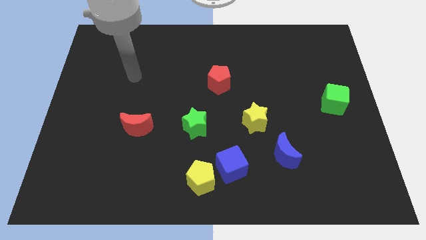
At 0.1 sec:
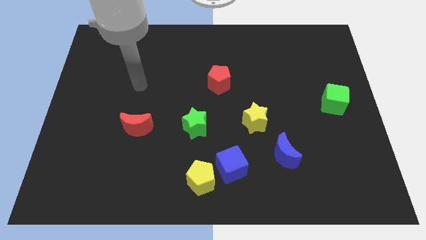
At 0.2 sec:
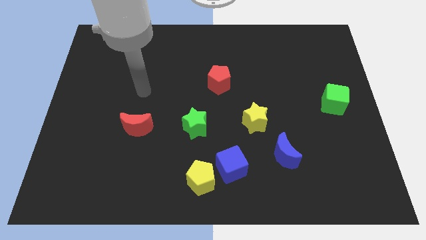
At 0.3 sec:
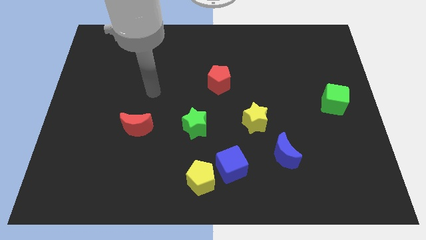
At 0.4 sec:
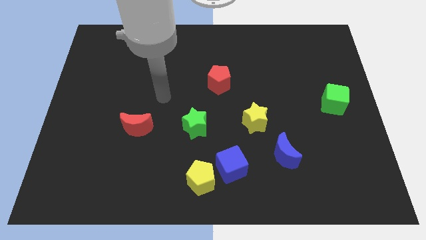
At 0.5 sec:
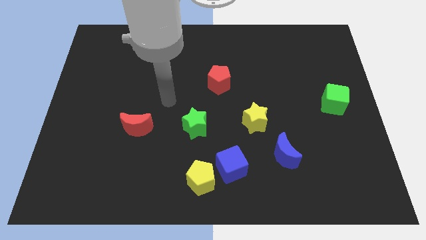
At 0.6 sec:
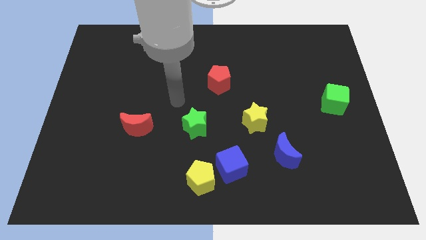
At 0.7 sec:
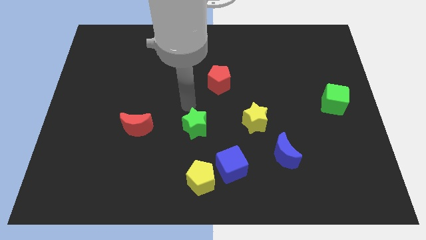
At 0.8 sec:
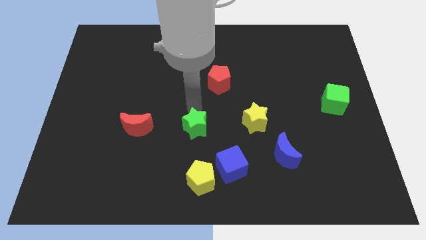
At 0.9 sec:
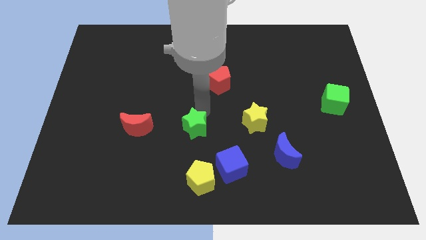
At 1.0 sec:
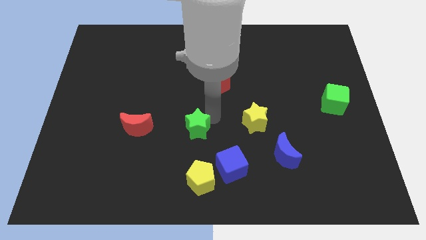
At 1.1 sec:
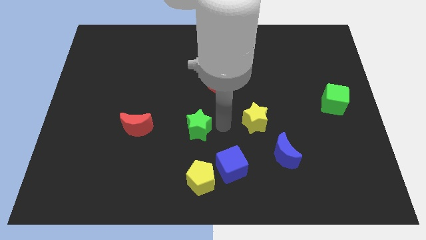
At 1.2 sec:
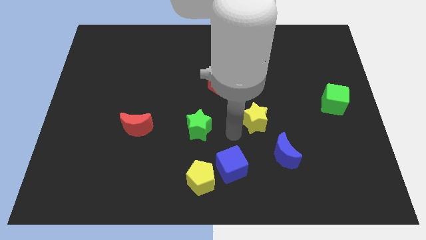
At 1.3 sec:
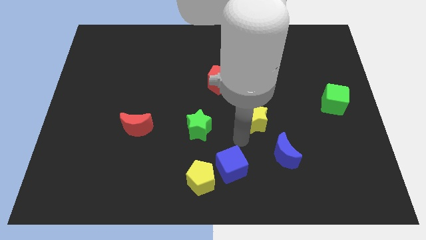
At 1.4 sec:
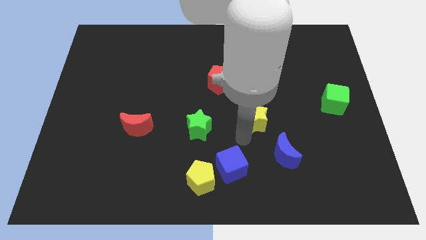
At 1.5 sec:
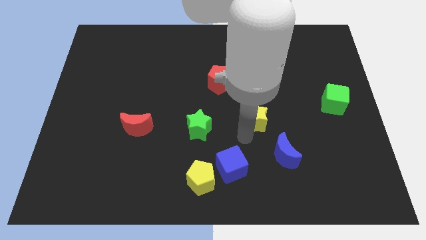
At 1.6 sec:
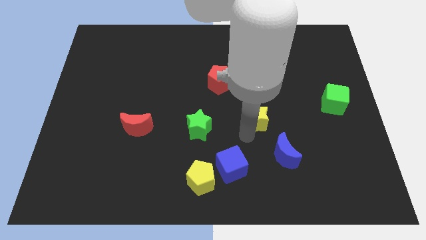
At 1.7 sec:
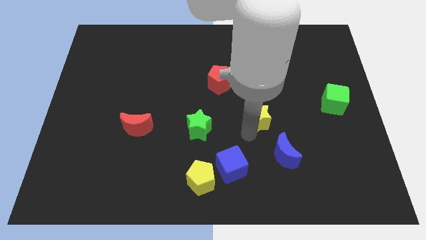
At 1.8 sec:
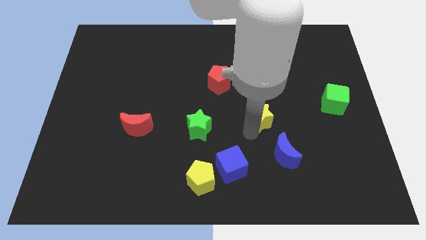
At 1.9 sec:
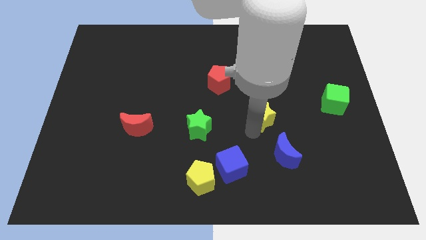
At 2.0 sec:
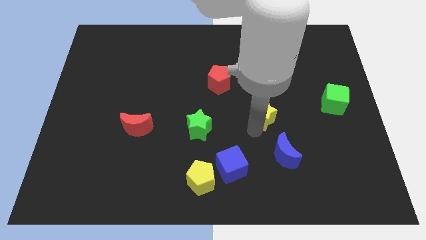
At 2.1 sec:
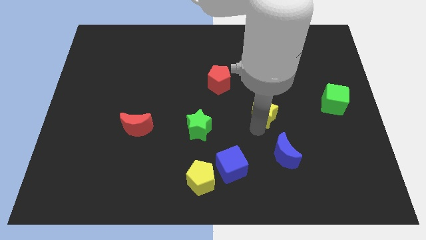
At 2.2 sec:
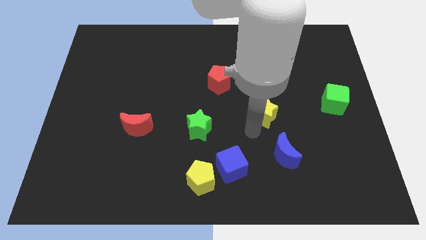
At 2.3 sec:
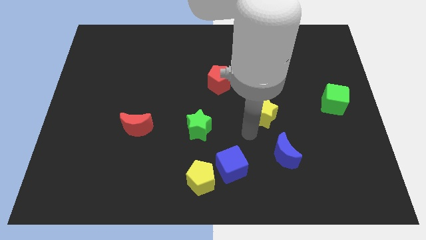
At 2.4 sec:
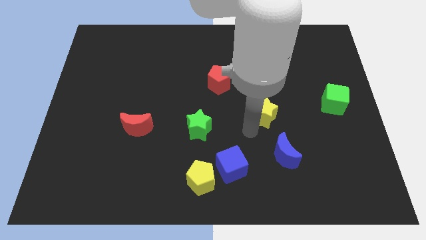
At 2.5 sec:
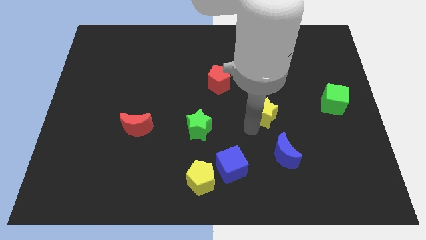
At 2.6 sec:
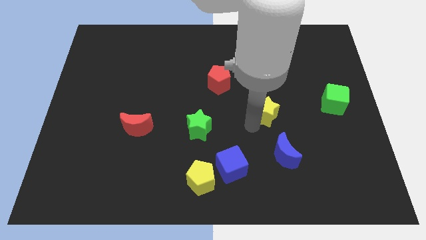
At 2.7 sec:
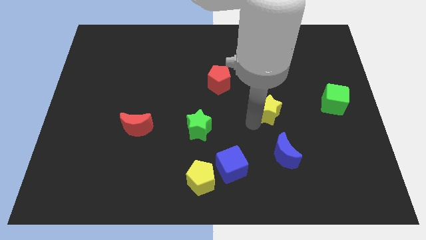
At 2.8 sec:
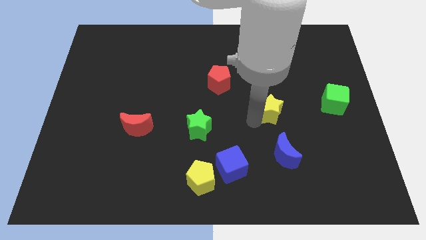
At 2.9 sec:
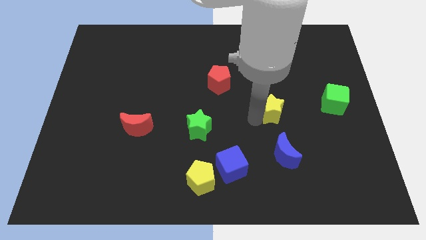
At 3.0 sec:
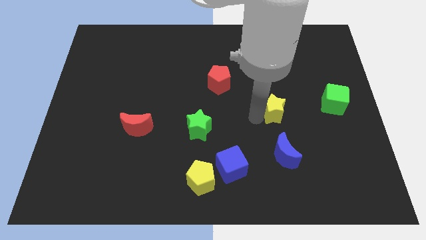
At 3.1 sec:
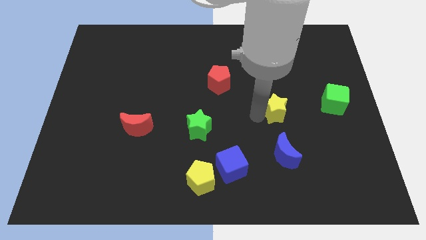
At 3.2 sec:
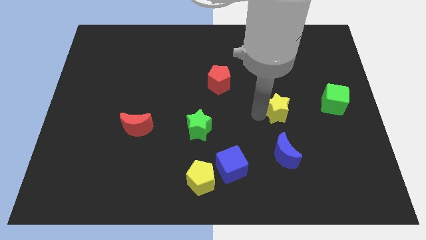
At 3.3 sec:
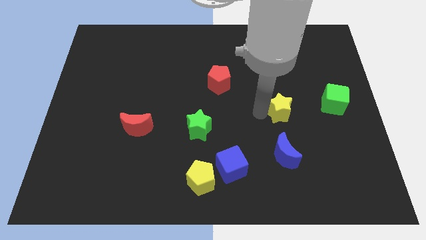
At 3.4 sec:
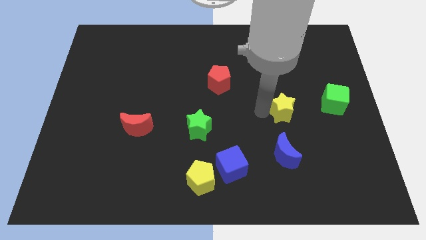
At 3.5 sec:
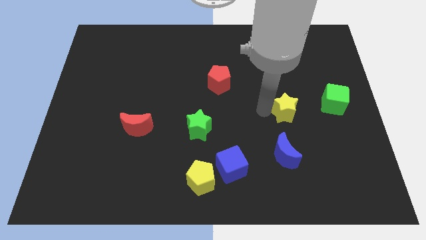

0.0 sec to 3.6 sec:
slide the yellow star slightly up and then to the right

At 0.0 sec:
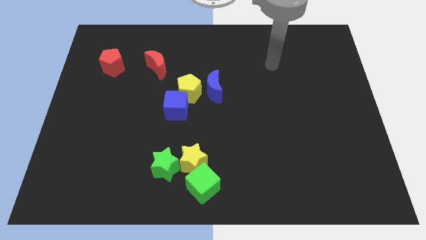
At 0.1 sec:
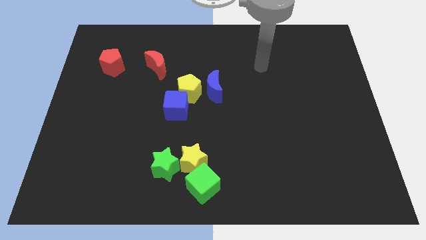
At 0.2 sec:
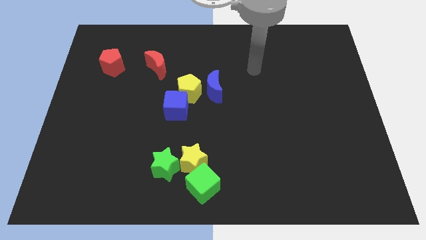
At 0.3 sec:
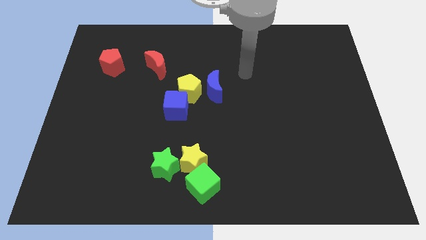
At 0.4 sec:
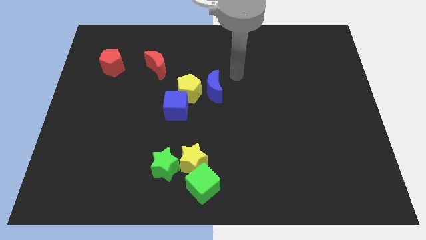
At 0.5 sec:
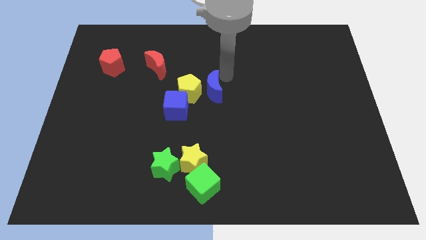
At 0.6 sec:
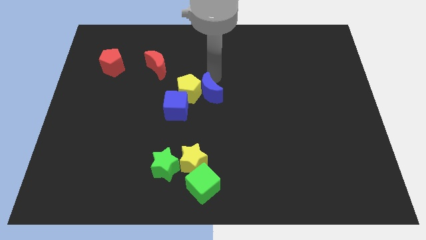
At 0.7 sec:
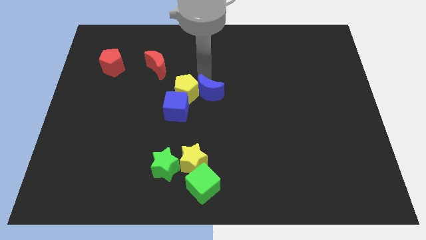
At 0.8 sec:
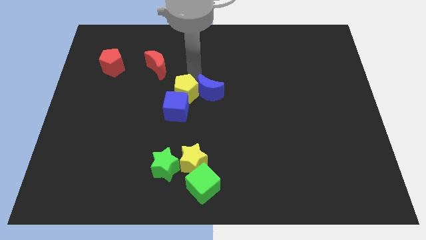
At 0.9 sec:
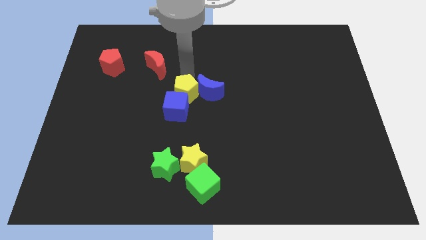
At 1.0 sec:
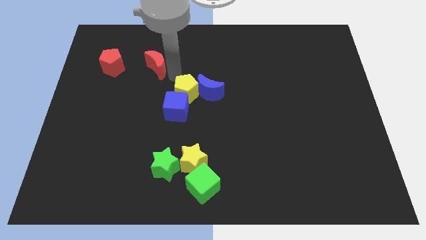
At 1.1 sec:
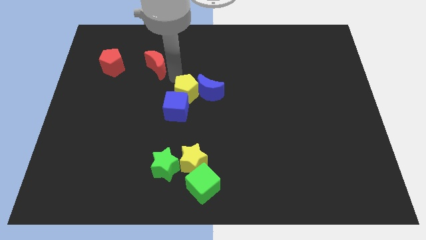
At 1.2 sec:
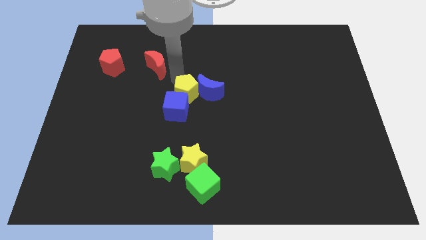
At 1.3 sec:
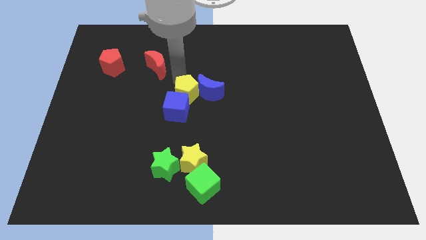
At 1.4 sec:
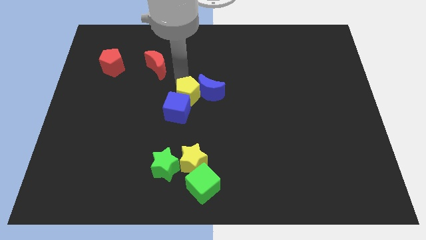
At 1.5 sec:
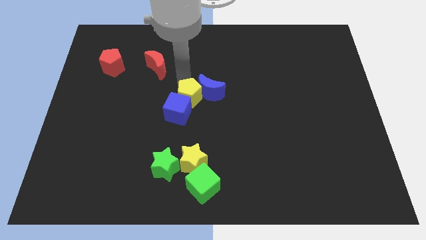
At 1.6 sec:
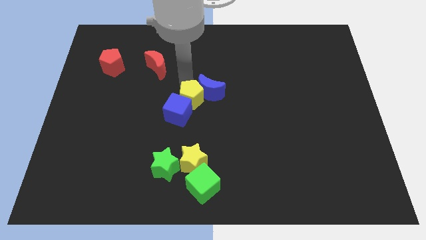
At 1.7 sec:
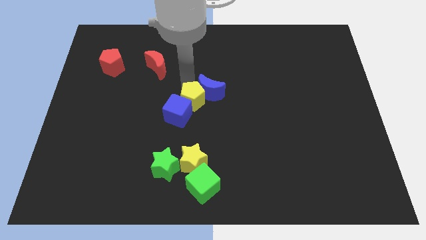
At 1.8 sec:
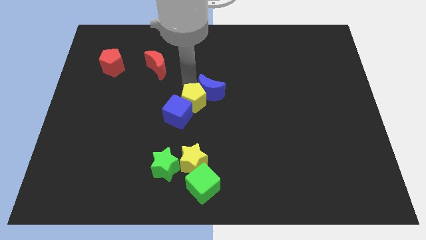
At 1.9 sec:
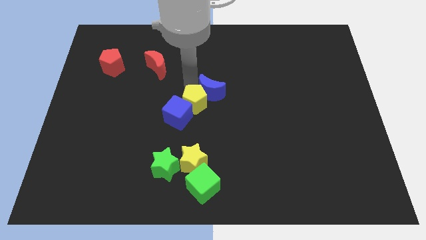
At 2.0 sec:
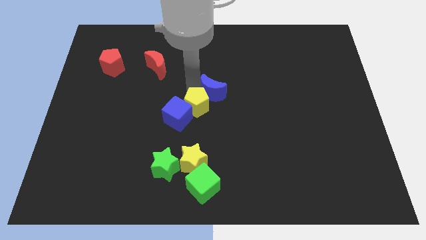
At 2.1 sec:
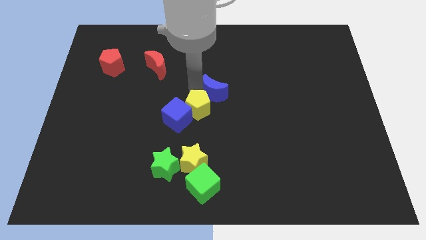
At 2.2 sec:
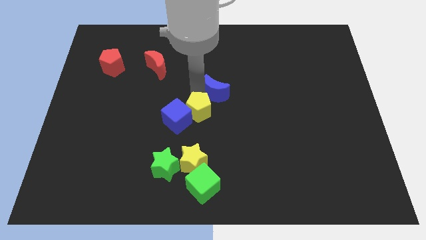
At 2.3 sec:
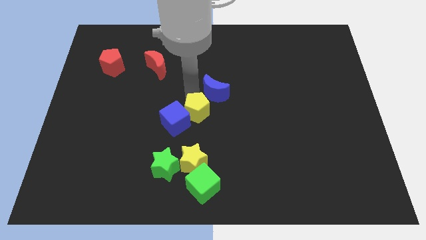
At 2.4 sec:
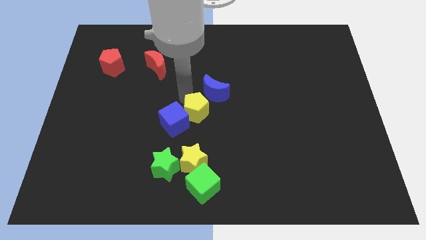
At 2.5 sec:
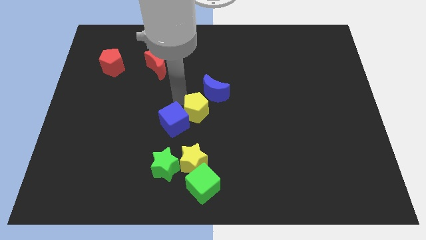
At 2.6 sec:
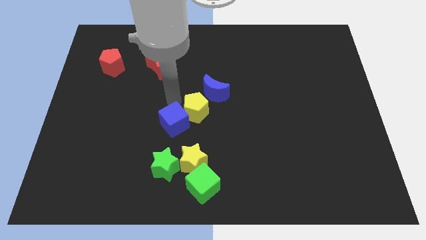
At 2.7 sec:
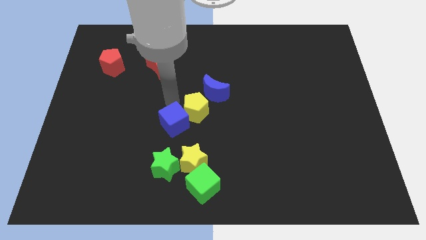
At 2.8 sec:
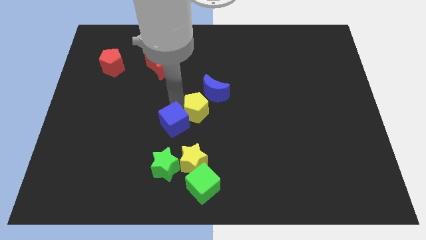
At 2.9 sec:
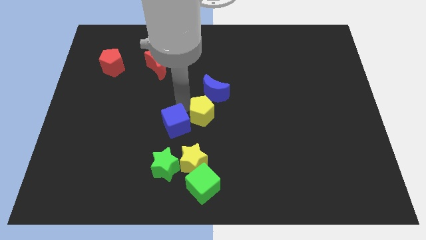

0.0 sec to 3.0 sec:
slightly move the yellow pentagon downwards and right diagonally

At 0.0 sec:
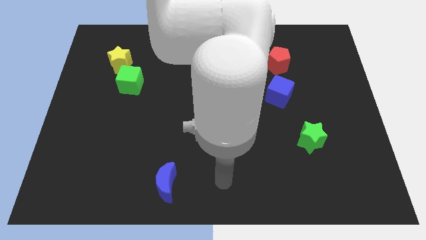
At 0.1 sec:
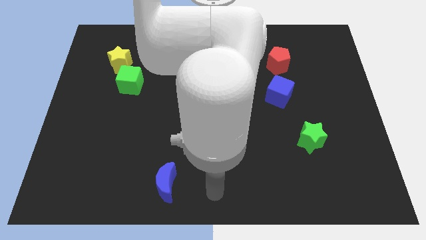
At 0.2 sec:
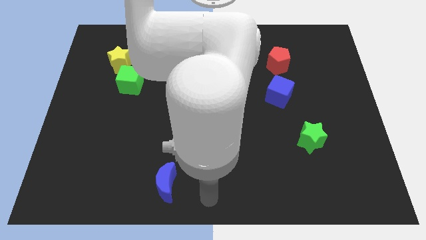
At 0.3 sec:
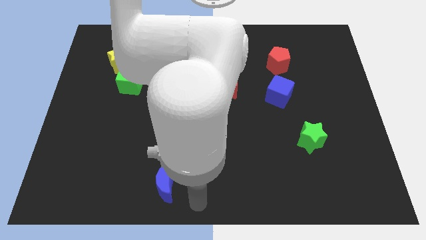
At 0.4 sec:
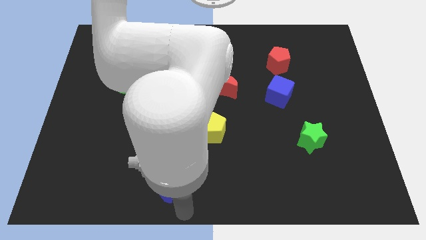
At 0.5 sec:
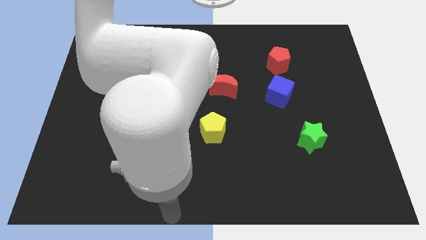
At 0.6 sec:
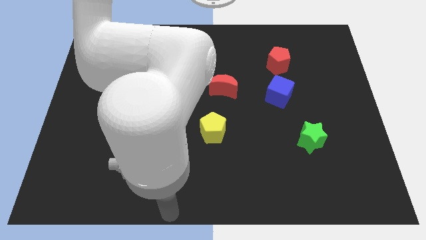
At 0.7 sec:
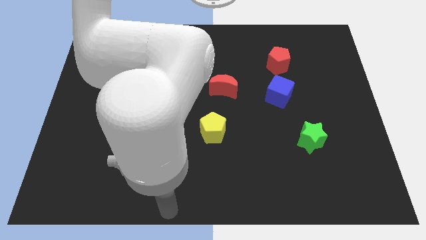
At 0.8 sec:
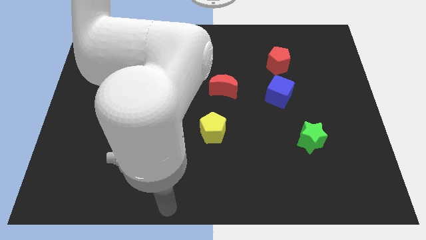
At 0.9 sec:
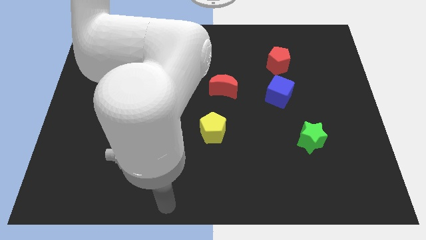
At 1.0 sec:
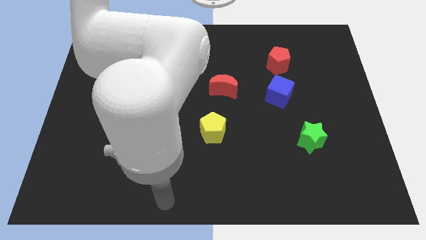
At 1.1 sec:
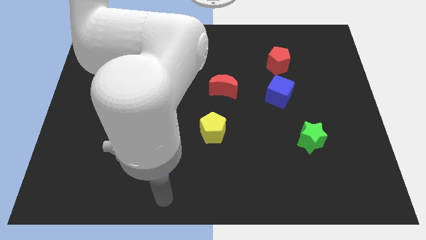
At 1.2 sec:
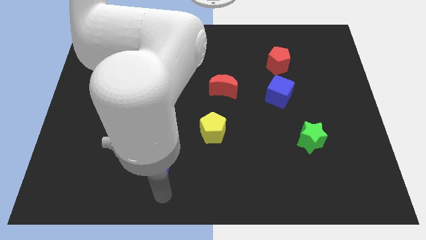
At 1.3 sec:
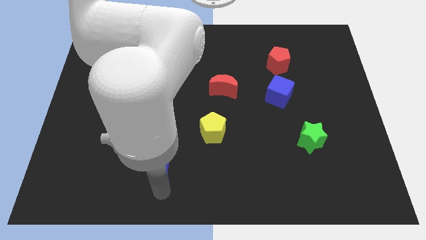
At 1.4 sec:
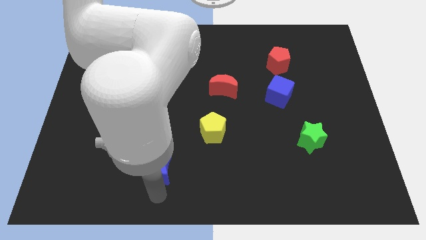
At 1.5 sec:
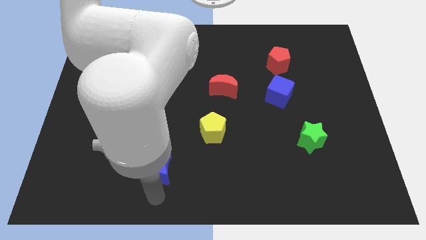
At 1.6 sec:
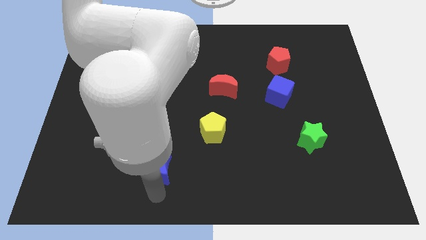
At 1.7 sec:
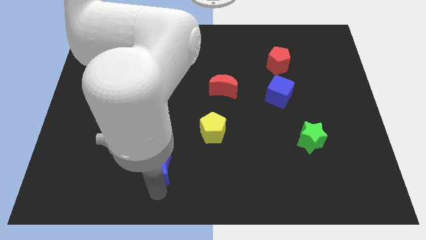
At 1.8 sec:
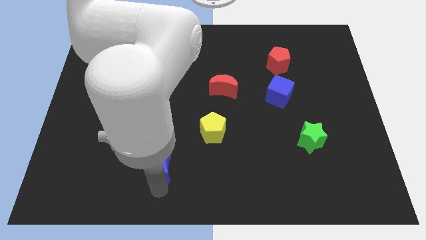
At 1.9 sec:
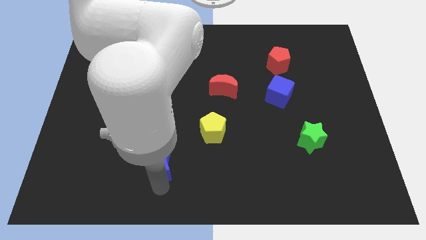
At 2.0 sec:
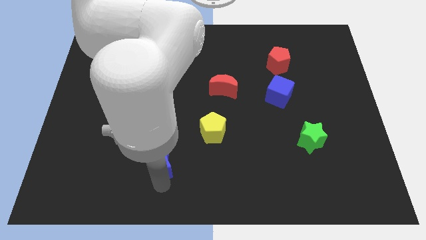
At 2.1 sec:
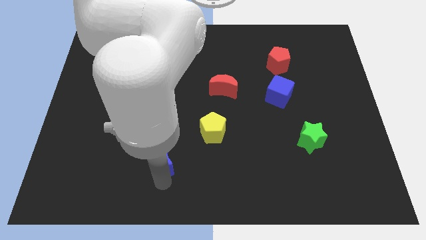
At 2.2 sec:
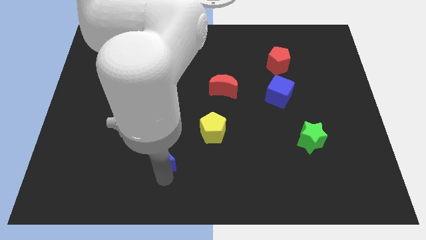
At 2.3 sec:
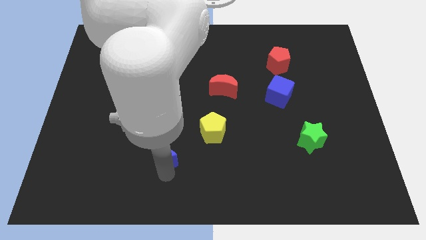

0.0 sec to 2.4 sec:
slightly slide the blue moon up
